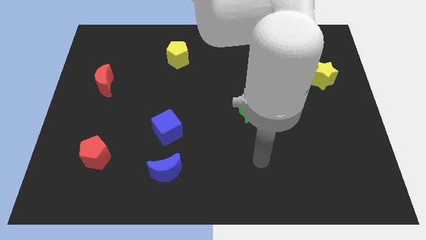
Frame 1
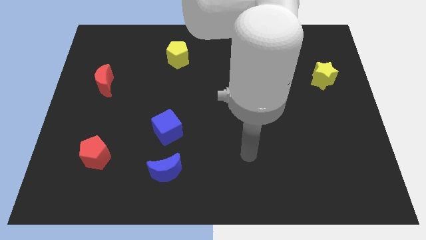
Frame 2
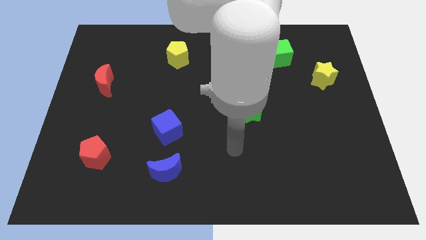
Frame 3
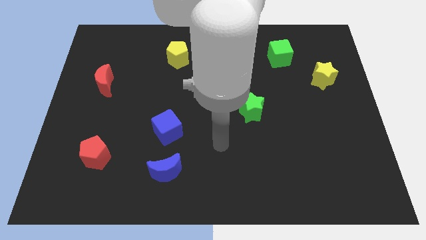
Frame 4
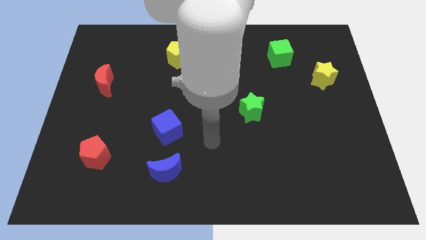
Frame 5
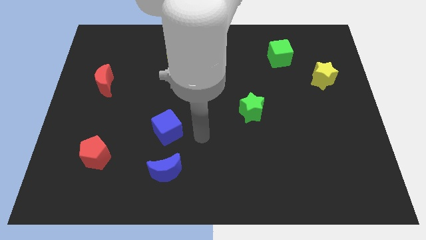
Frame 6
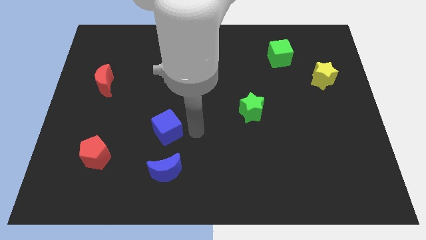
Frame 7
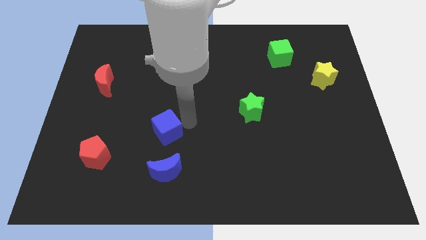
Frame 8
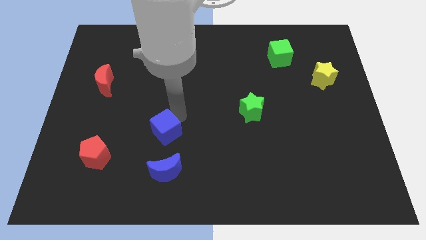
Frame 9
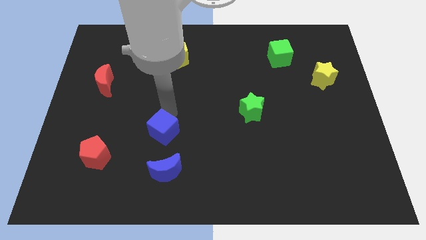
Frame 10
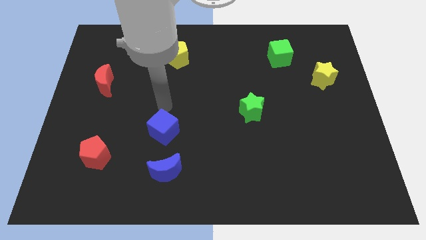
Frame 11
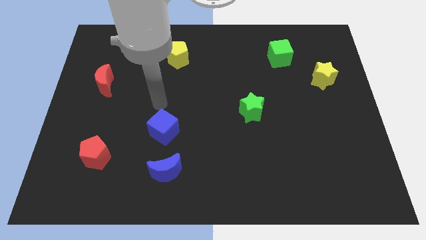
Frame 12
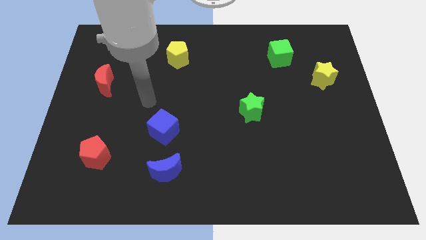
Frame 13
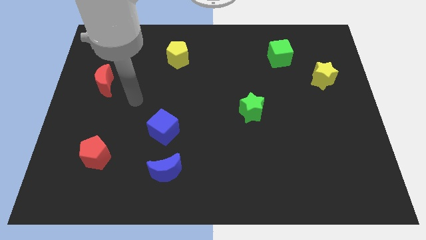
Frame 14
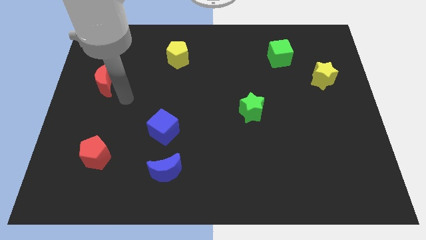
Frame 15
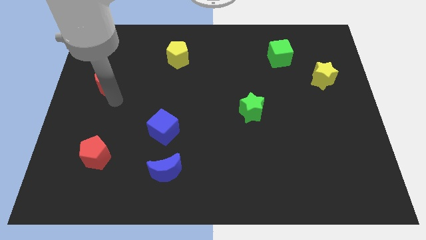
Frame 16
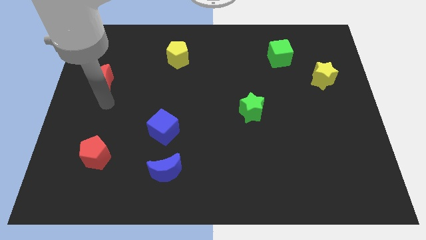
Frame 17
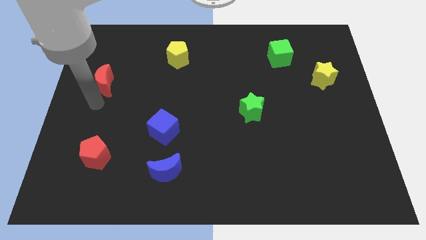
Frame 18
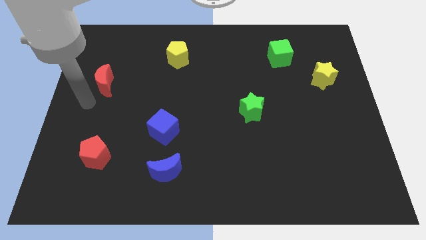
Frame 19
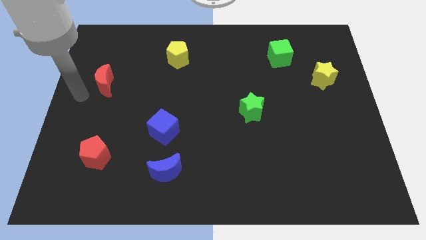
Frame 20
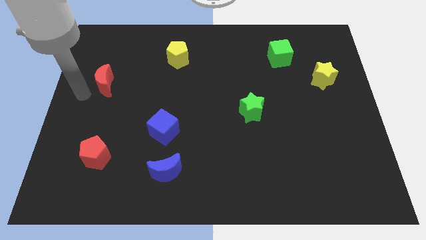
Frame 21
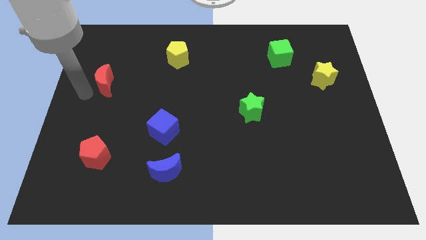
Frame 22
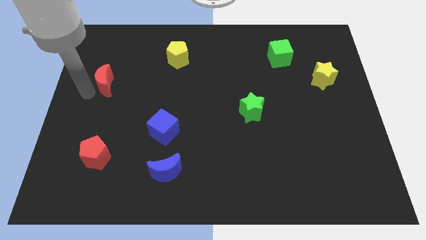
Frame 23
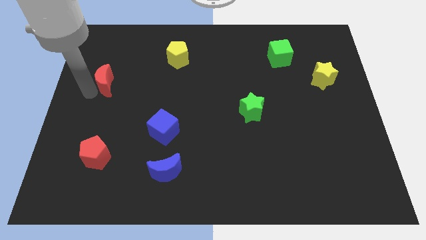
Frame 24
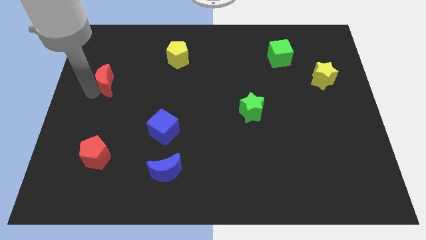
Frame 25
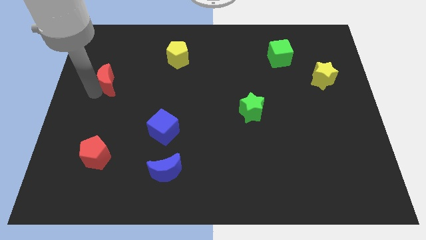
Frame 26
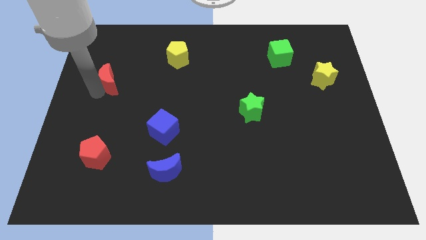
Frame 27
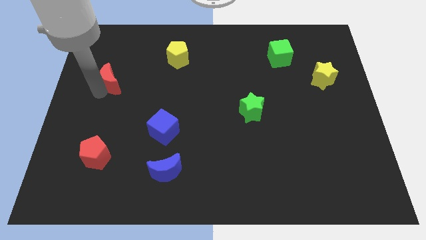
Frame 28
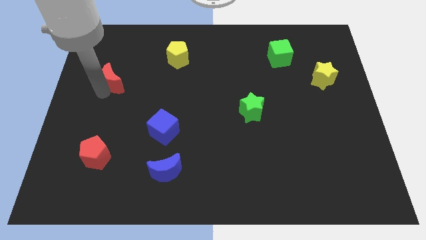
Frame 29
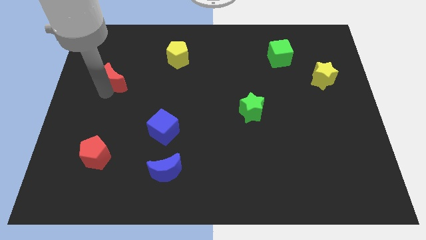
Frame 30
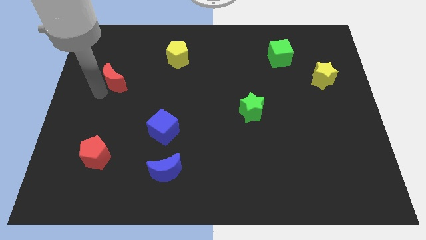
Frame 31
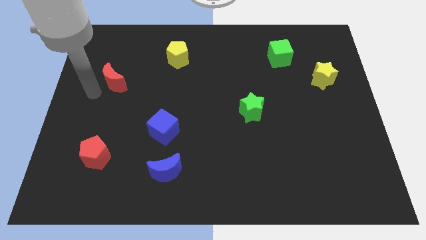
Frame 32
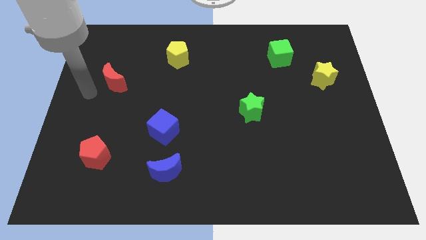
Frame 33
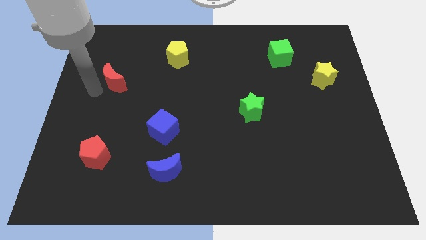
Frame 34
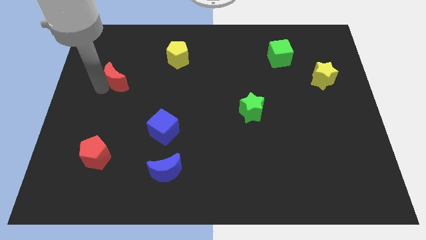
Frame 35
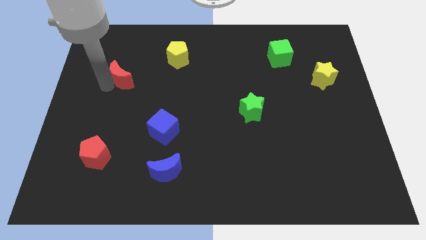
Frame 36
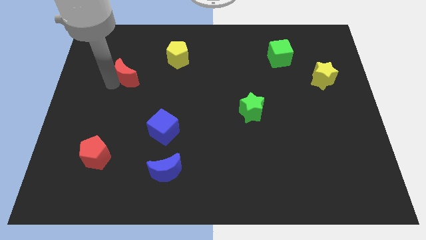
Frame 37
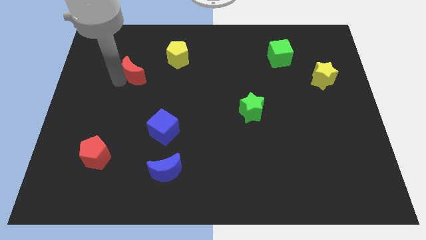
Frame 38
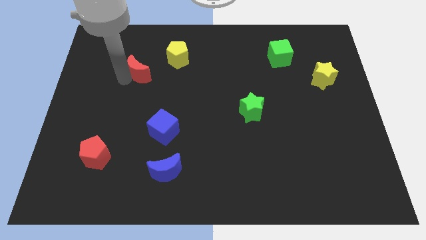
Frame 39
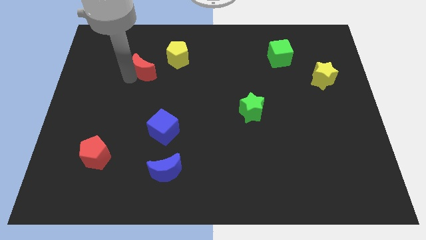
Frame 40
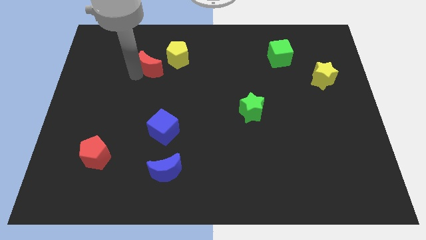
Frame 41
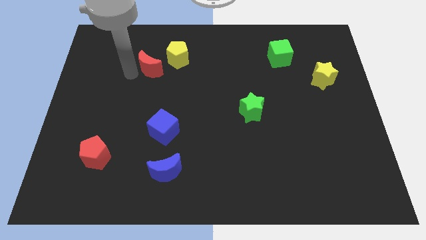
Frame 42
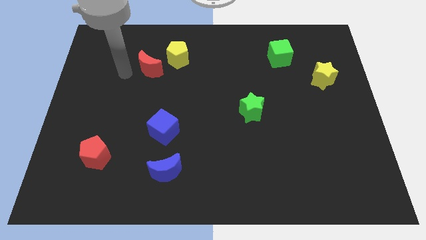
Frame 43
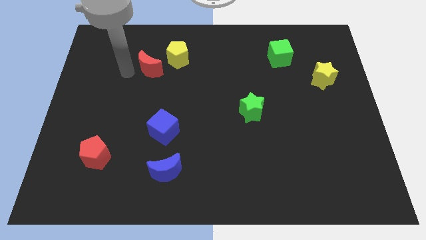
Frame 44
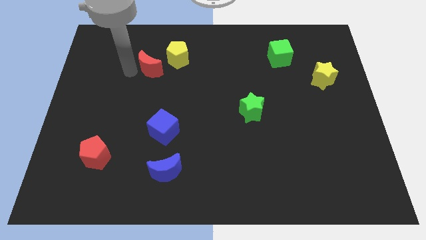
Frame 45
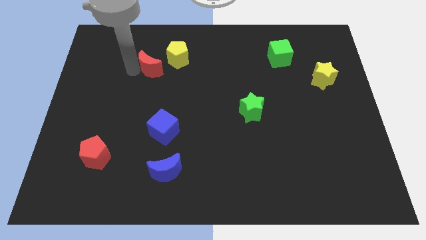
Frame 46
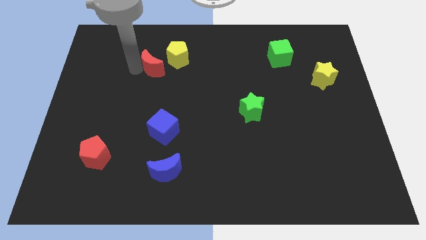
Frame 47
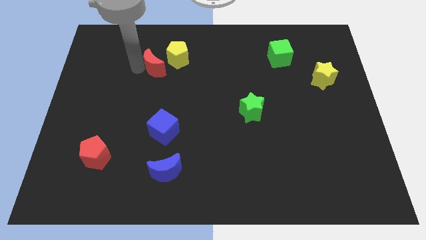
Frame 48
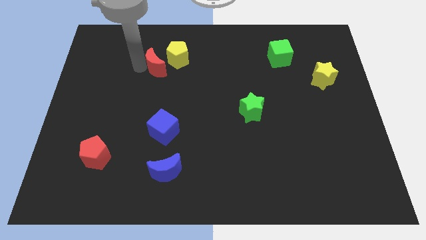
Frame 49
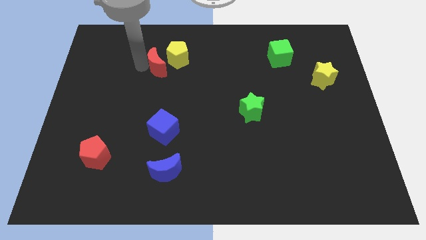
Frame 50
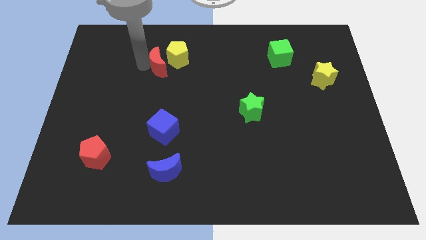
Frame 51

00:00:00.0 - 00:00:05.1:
put the red moon next to the yellow pentagon

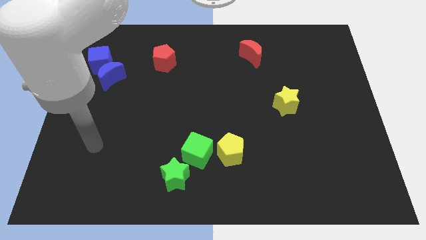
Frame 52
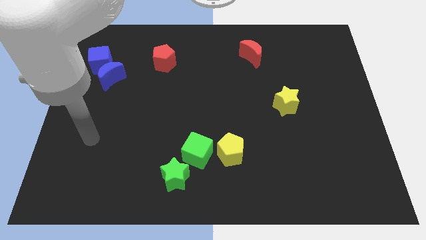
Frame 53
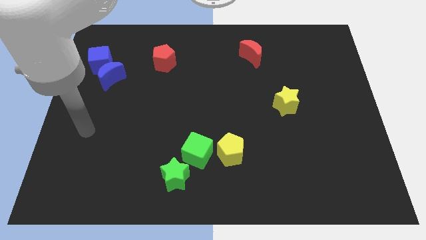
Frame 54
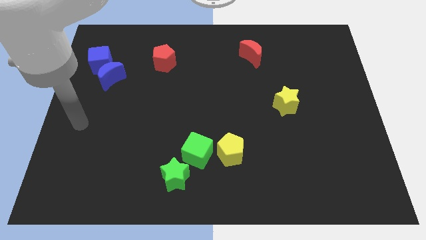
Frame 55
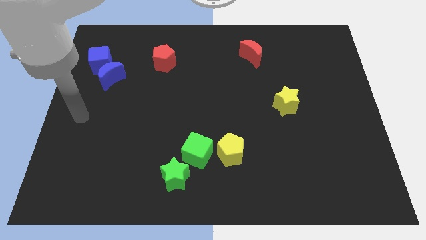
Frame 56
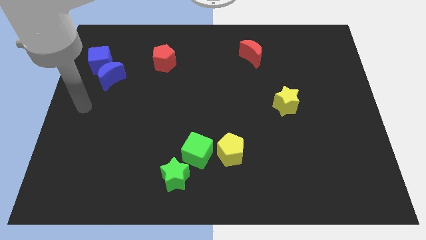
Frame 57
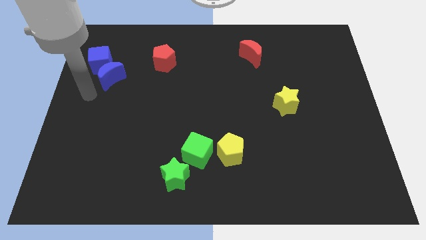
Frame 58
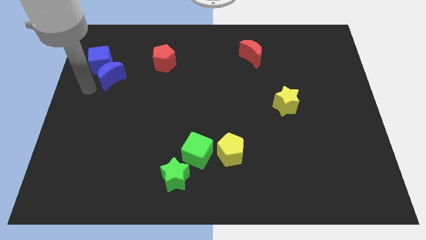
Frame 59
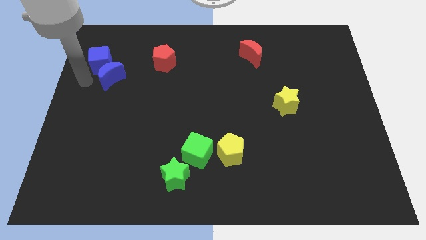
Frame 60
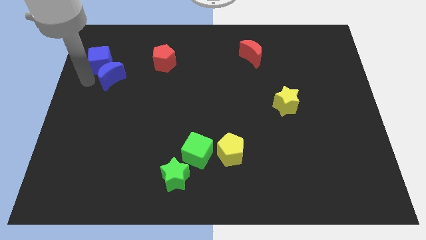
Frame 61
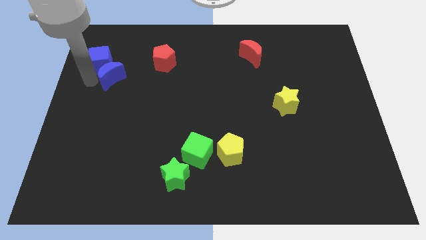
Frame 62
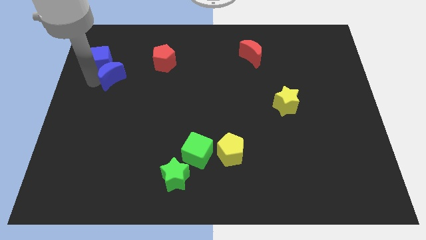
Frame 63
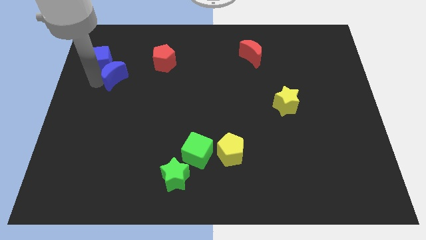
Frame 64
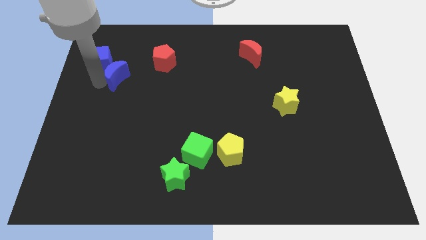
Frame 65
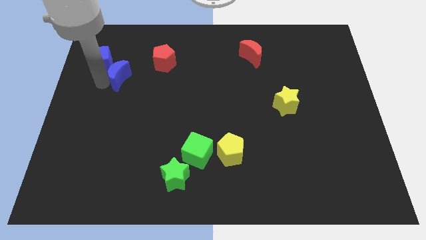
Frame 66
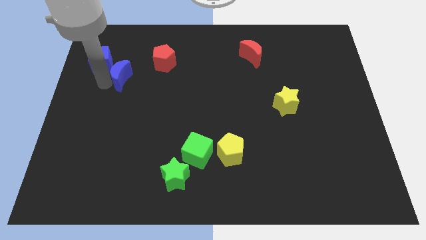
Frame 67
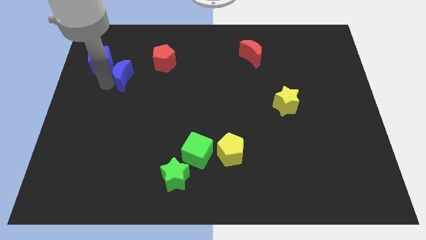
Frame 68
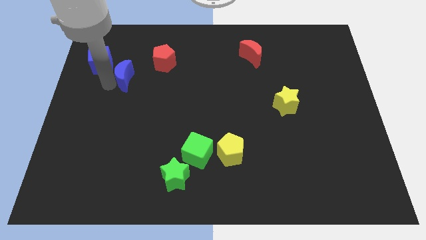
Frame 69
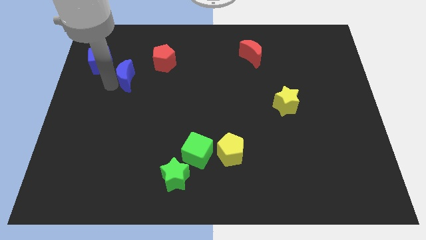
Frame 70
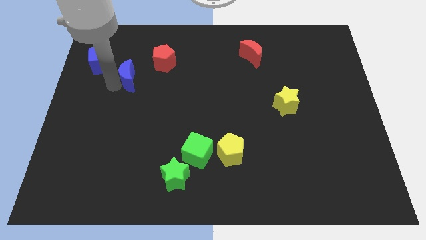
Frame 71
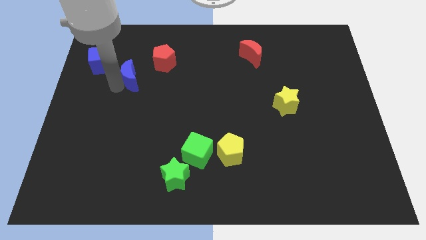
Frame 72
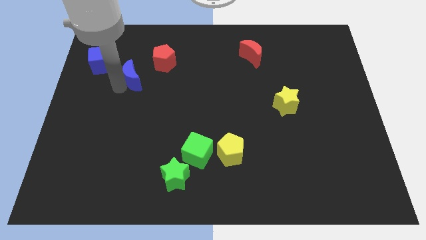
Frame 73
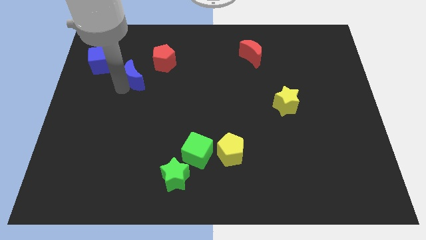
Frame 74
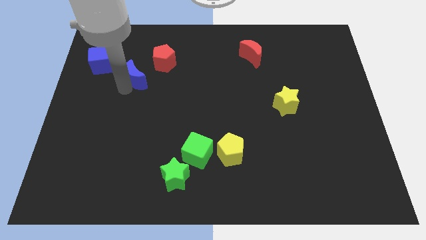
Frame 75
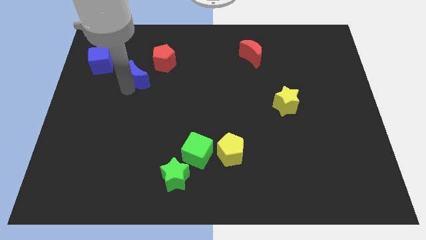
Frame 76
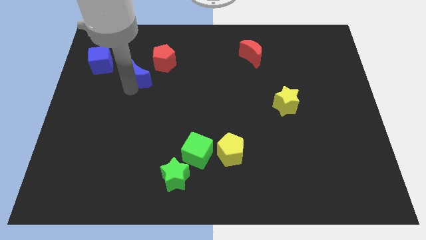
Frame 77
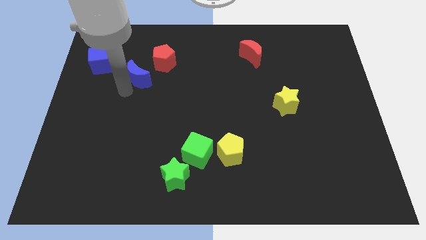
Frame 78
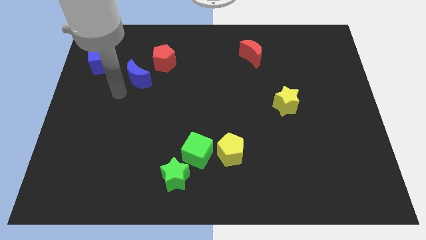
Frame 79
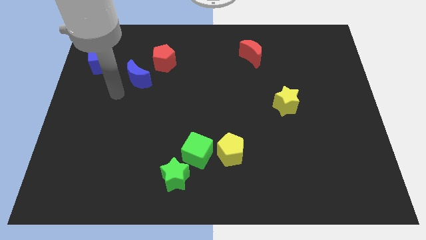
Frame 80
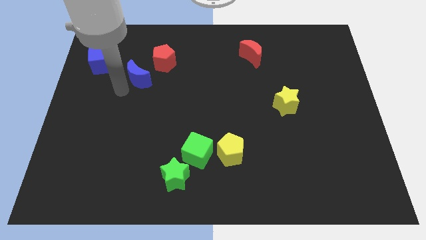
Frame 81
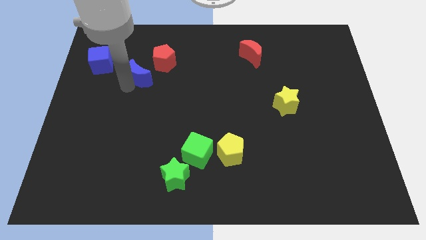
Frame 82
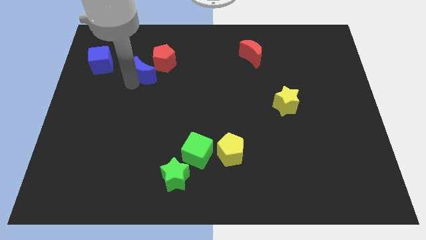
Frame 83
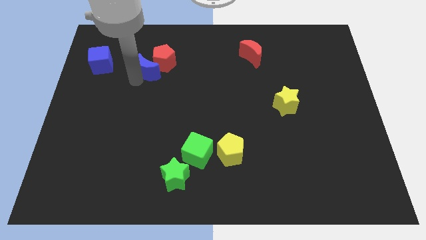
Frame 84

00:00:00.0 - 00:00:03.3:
put the blue moon towards the red pentagon
